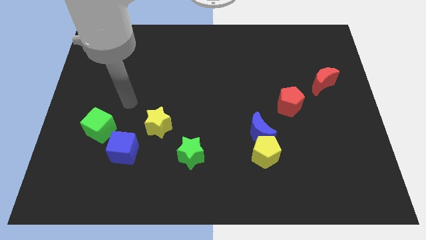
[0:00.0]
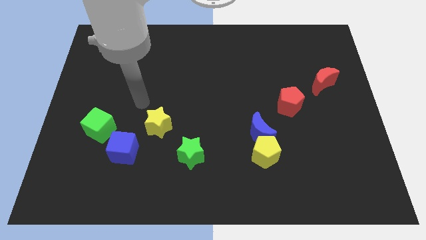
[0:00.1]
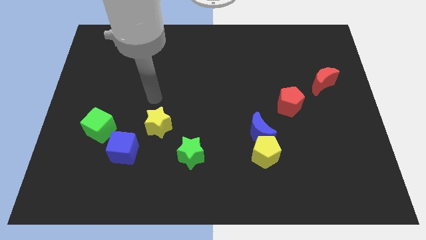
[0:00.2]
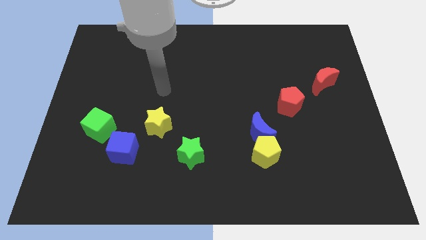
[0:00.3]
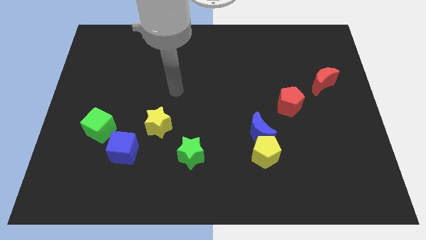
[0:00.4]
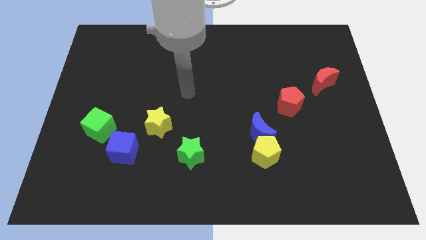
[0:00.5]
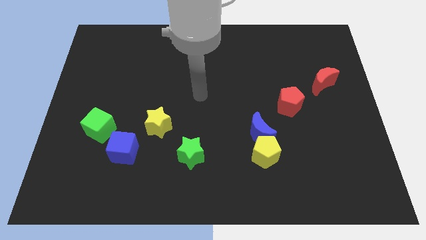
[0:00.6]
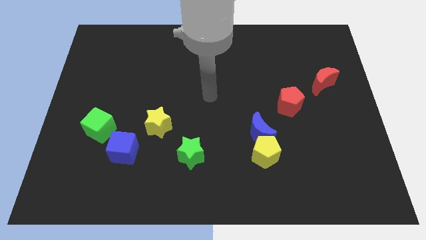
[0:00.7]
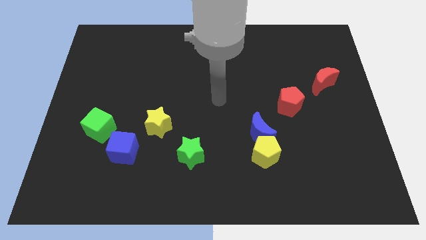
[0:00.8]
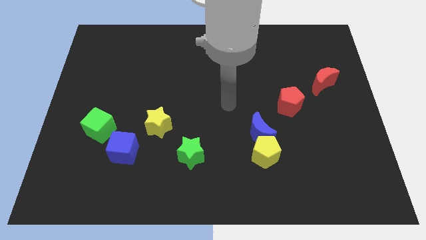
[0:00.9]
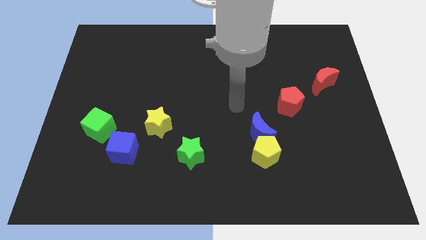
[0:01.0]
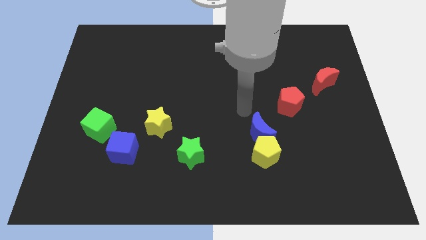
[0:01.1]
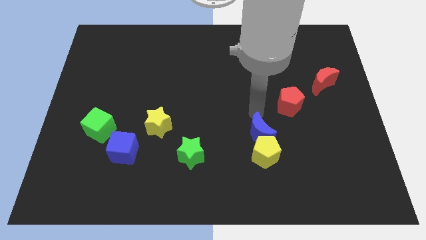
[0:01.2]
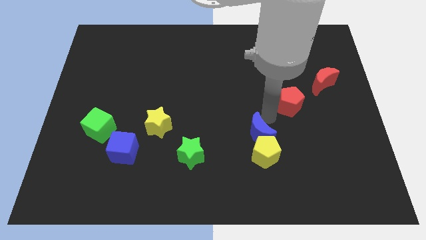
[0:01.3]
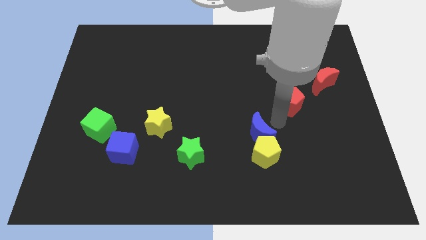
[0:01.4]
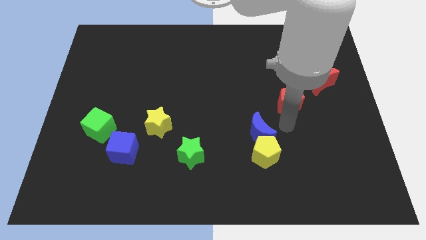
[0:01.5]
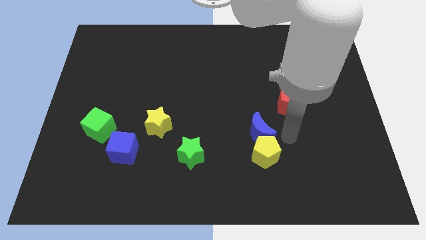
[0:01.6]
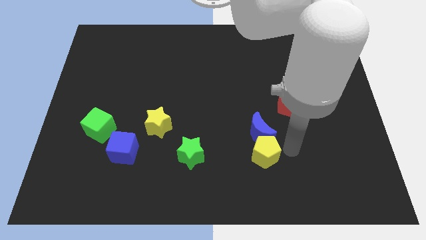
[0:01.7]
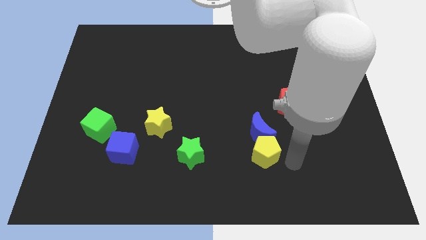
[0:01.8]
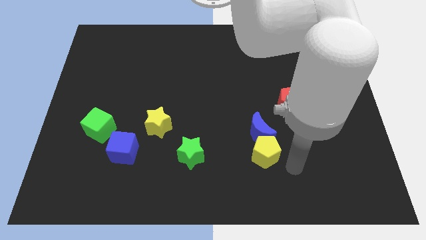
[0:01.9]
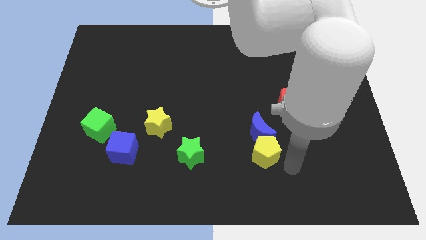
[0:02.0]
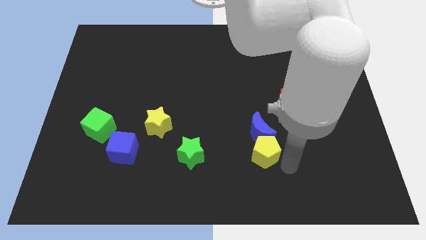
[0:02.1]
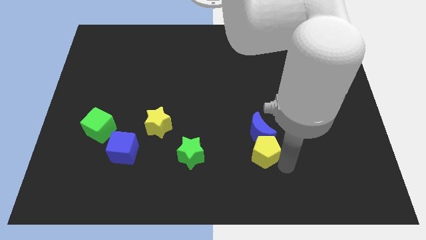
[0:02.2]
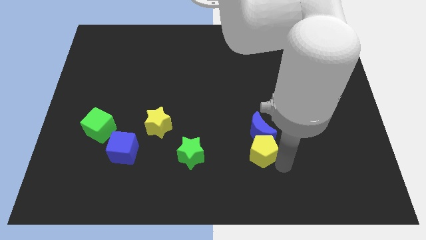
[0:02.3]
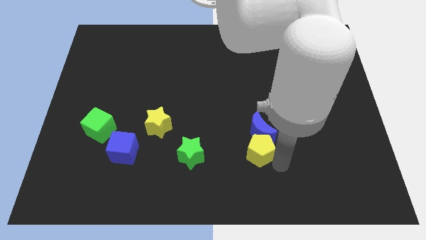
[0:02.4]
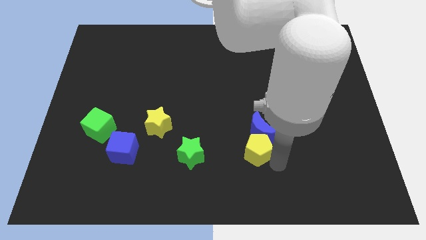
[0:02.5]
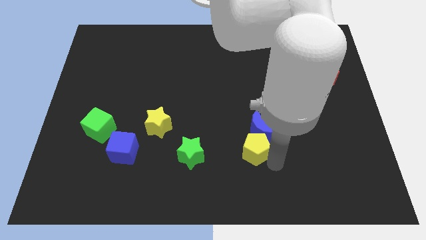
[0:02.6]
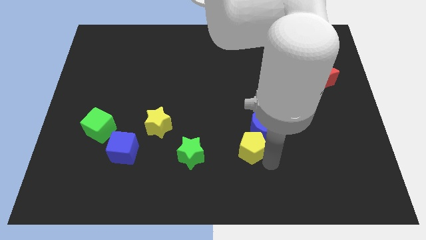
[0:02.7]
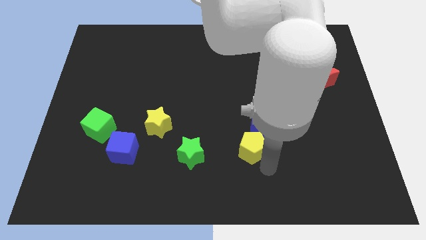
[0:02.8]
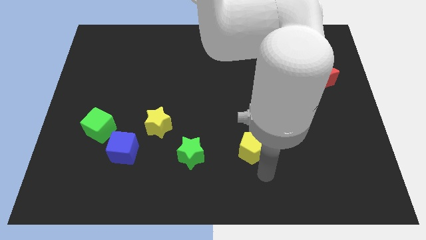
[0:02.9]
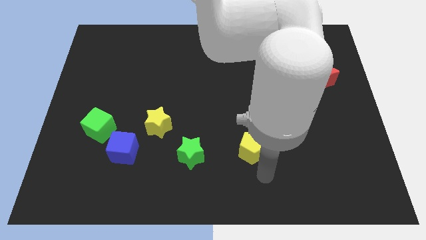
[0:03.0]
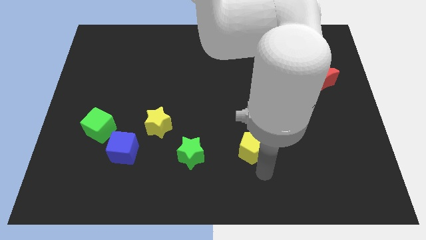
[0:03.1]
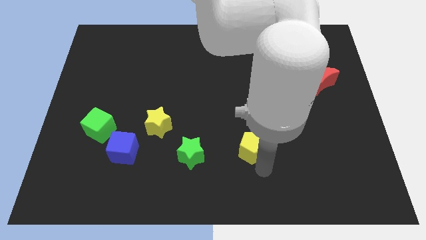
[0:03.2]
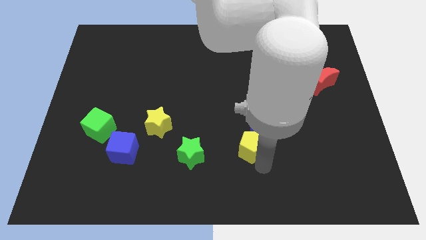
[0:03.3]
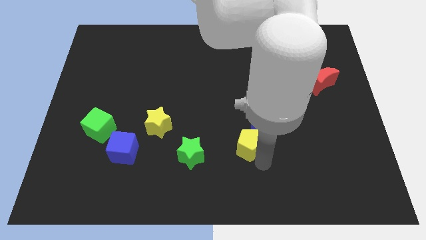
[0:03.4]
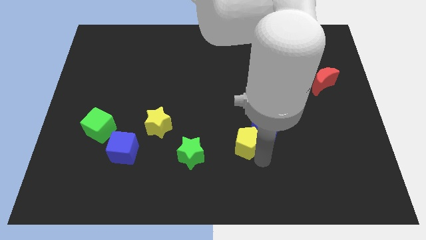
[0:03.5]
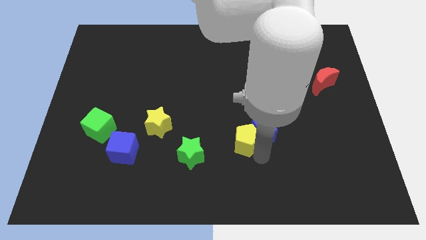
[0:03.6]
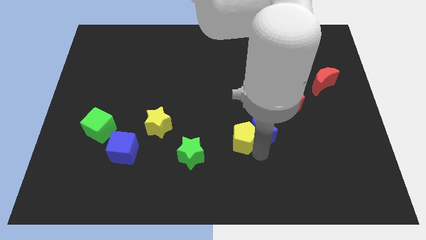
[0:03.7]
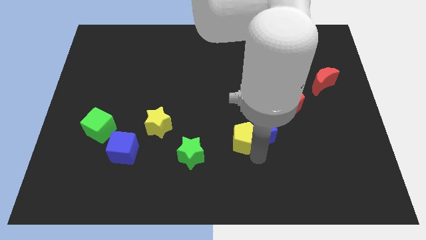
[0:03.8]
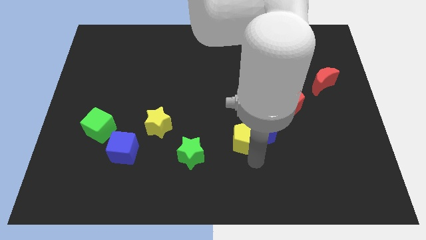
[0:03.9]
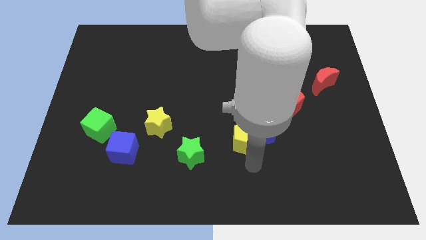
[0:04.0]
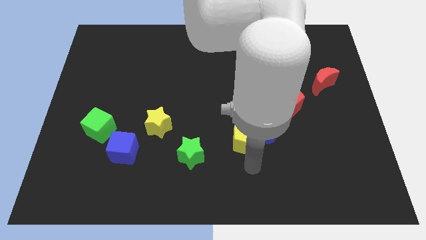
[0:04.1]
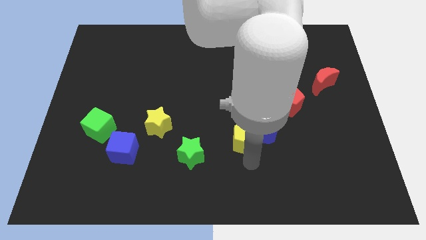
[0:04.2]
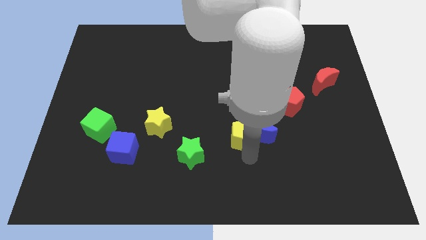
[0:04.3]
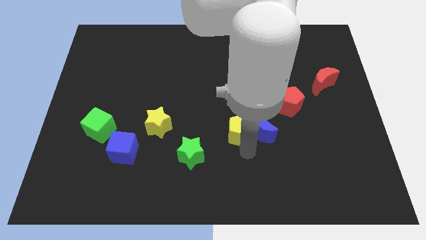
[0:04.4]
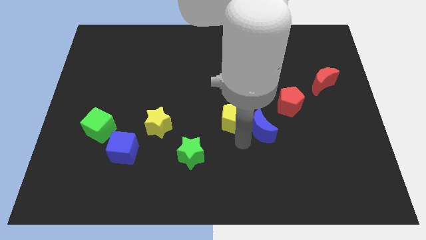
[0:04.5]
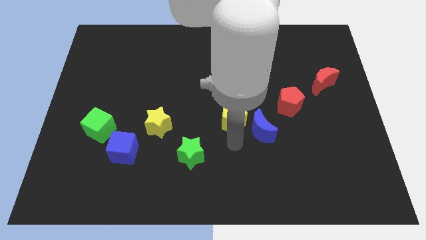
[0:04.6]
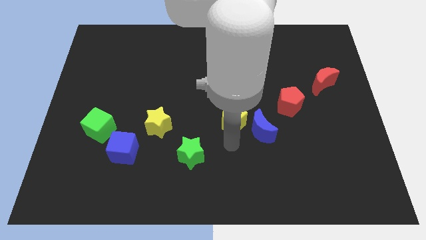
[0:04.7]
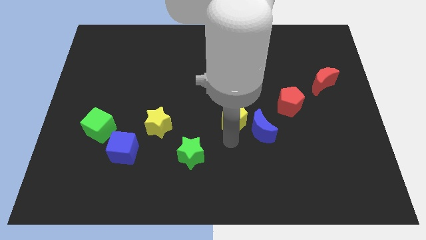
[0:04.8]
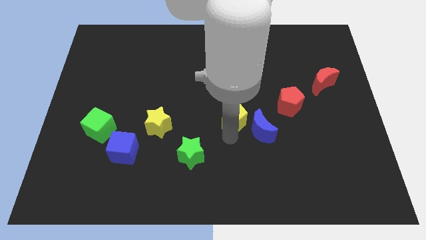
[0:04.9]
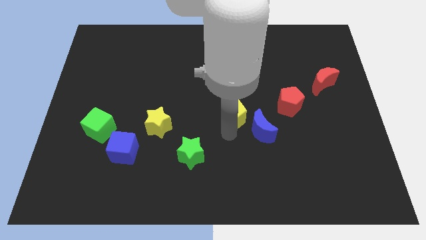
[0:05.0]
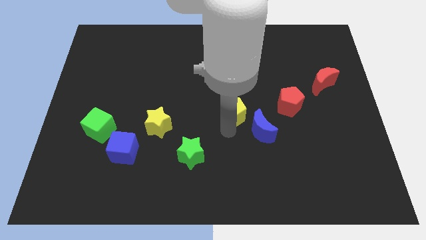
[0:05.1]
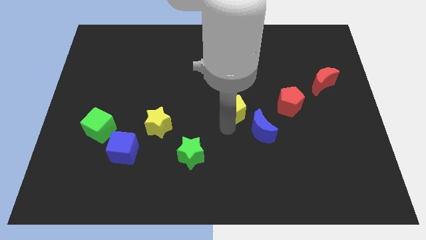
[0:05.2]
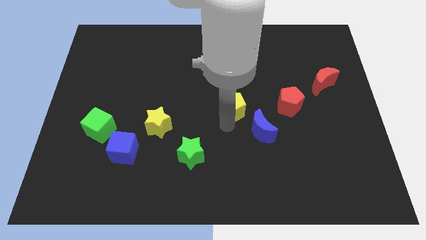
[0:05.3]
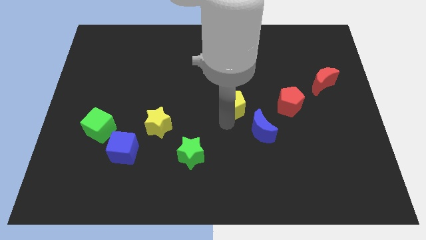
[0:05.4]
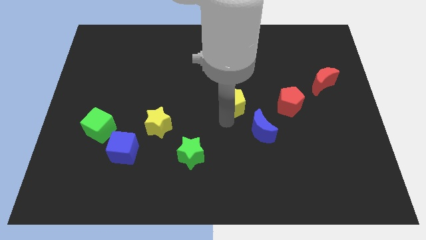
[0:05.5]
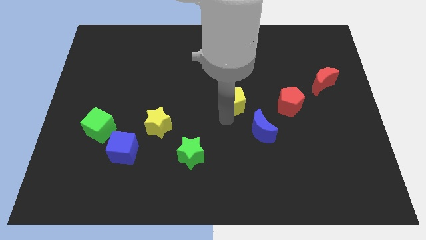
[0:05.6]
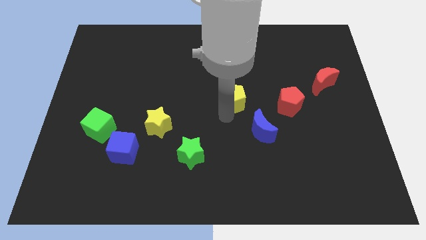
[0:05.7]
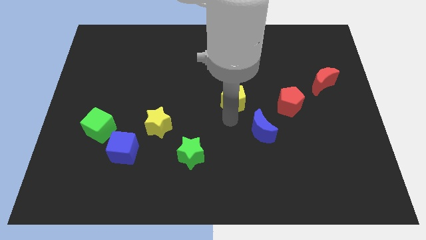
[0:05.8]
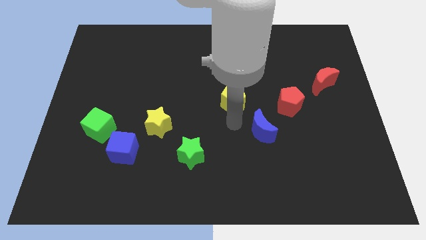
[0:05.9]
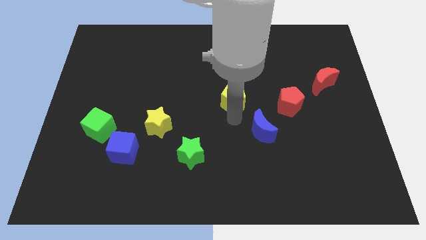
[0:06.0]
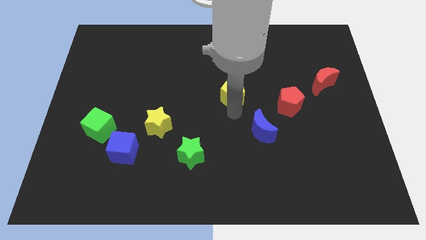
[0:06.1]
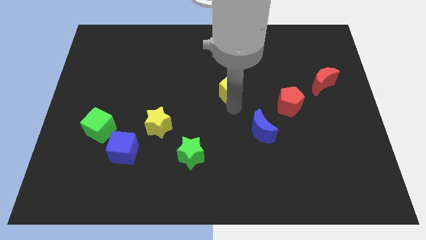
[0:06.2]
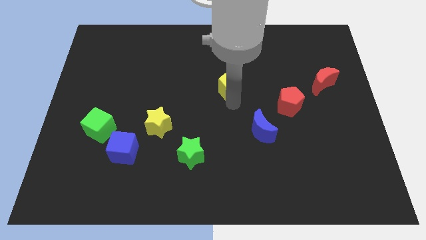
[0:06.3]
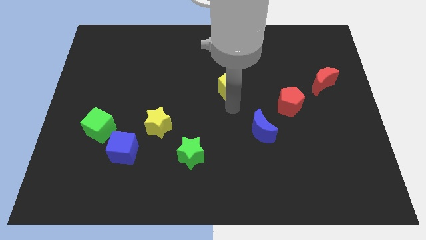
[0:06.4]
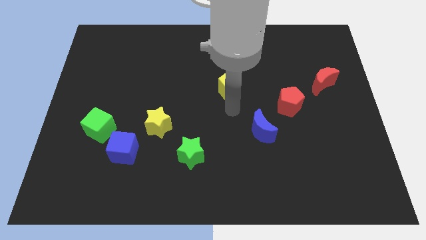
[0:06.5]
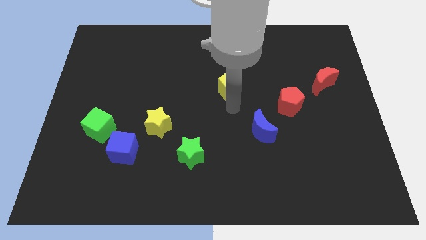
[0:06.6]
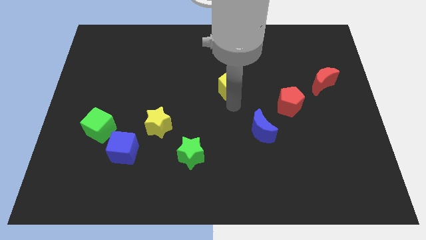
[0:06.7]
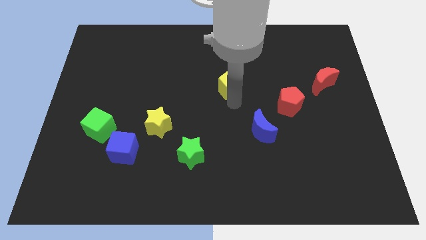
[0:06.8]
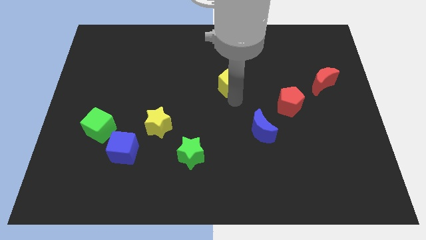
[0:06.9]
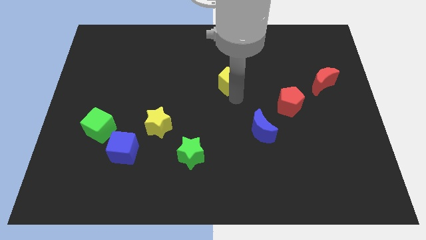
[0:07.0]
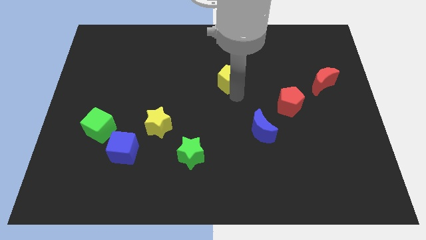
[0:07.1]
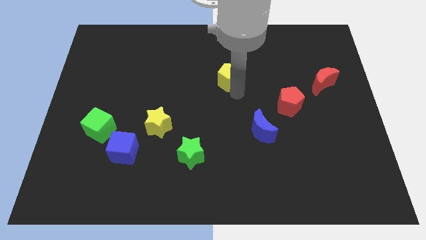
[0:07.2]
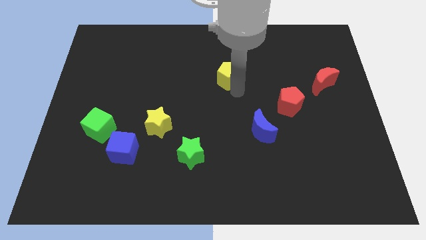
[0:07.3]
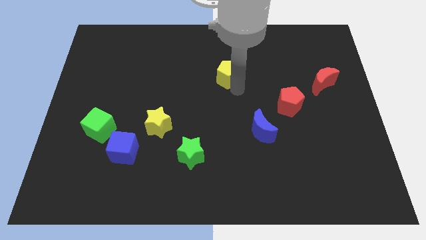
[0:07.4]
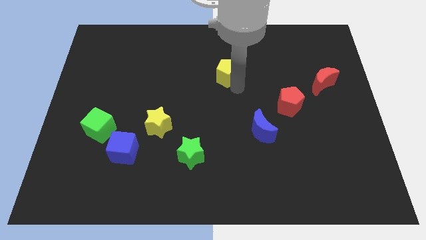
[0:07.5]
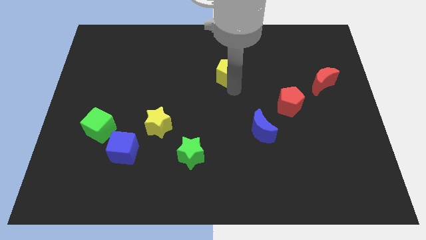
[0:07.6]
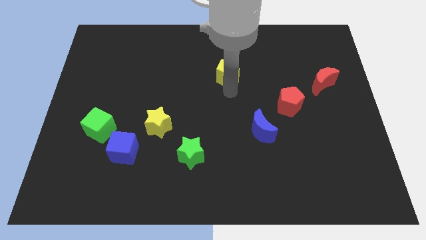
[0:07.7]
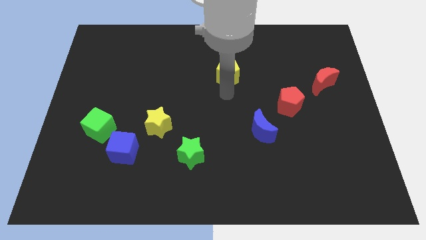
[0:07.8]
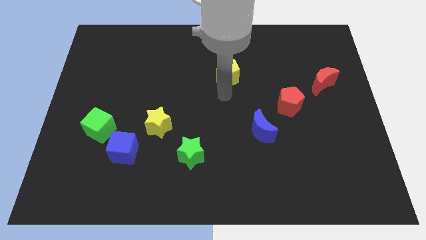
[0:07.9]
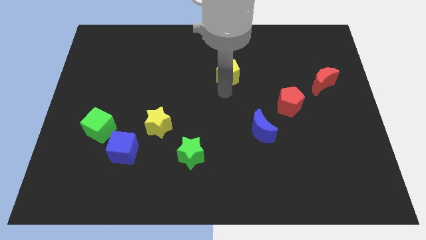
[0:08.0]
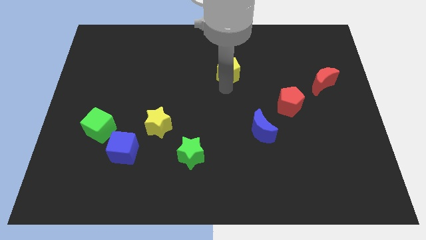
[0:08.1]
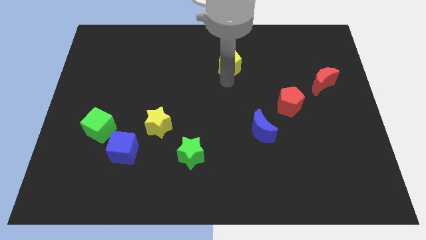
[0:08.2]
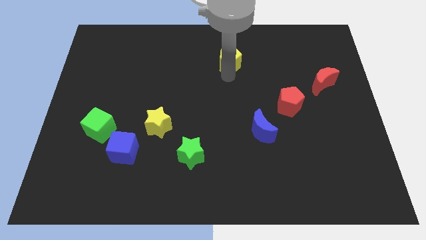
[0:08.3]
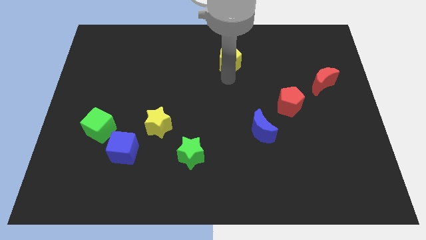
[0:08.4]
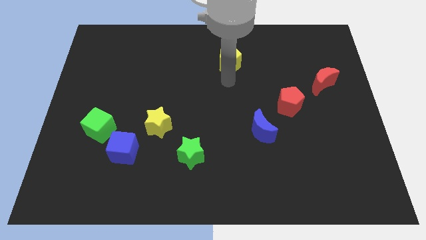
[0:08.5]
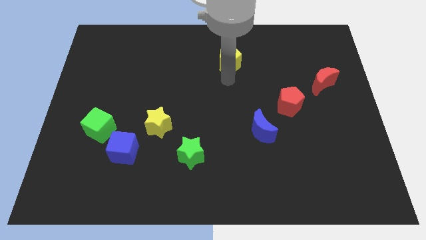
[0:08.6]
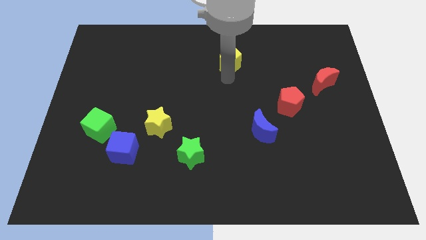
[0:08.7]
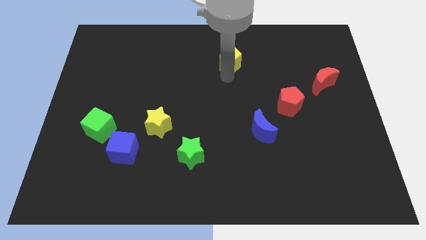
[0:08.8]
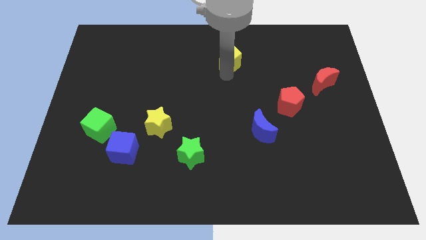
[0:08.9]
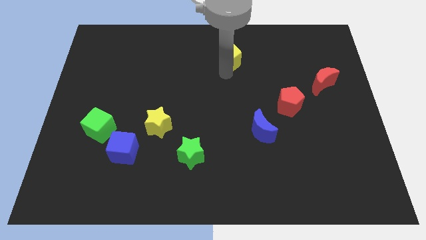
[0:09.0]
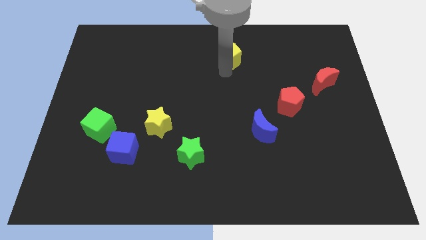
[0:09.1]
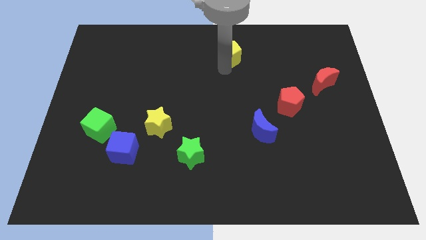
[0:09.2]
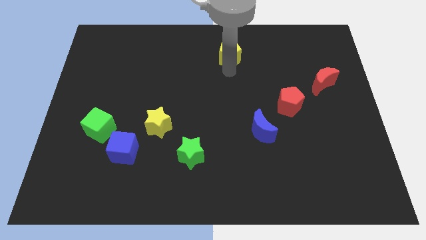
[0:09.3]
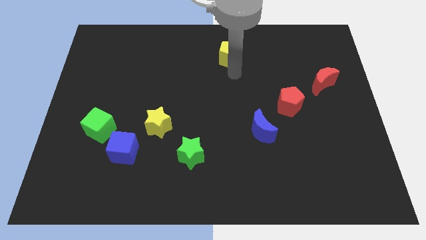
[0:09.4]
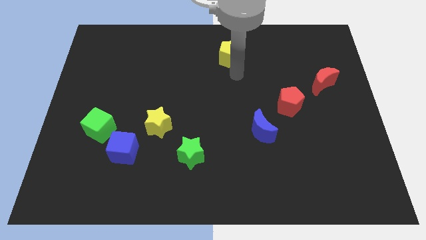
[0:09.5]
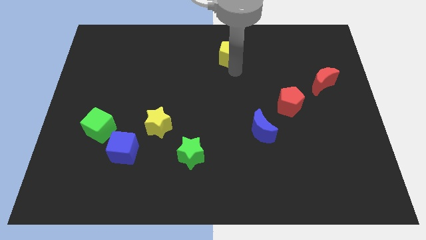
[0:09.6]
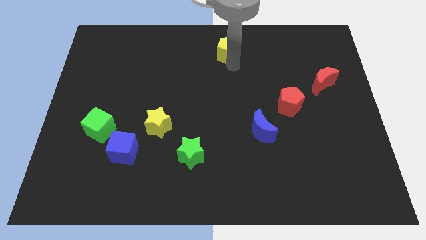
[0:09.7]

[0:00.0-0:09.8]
push the yellow pentagon to the top side
